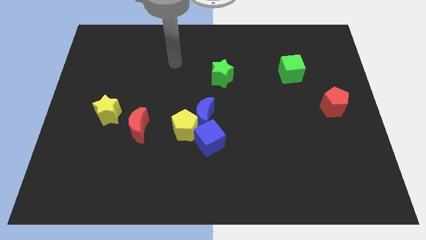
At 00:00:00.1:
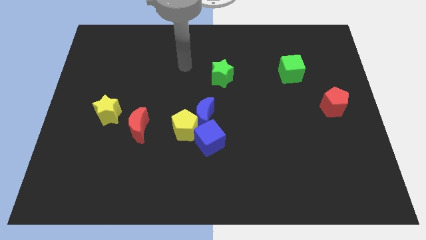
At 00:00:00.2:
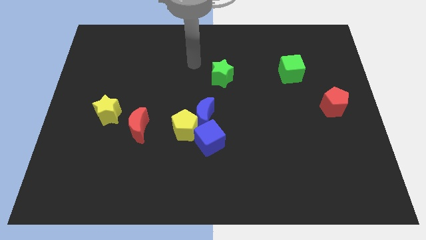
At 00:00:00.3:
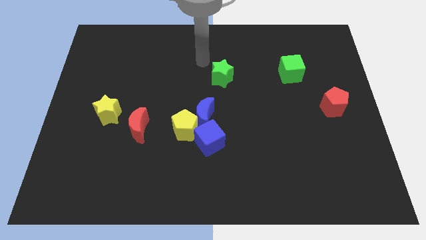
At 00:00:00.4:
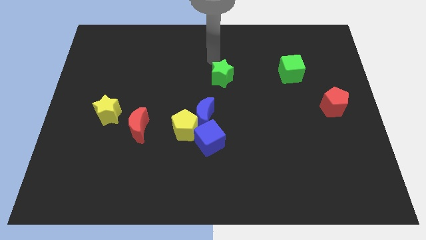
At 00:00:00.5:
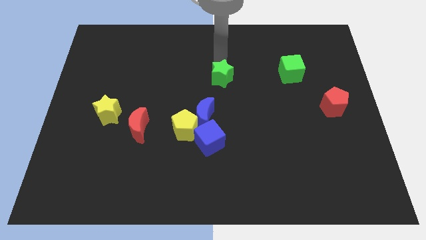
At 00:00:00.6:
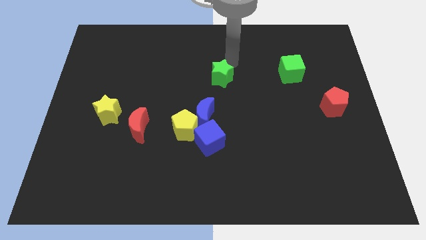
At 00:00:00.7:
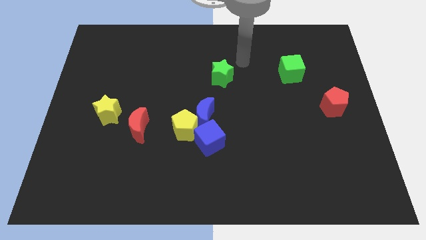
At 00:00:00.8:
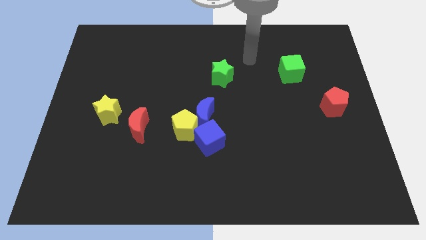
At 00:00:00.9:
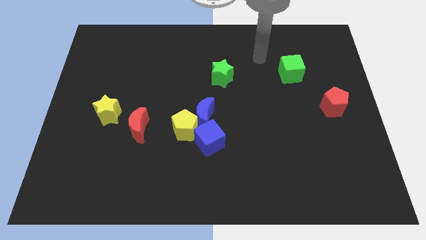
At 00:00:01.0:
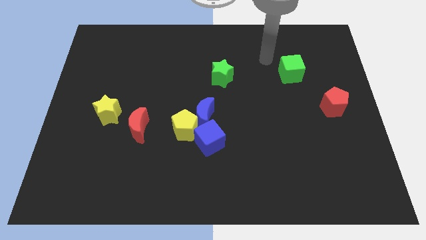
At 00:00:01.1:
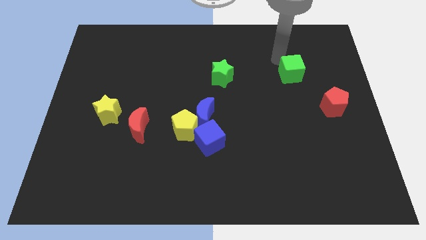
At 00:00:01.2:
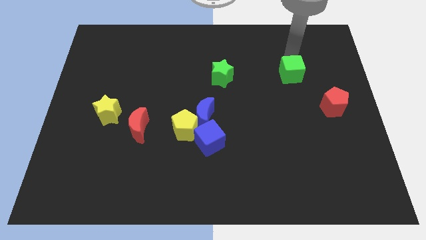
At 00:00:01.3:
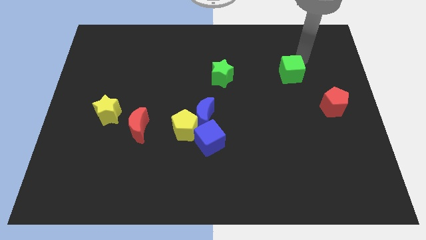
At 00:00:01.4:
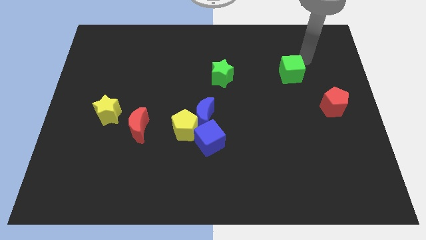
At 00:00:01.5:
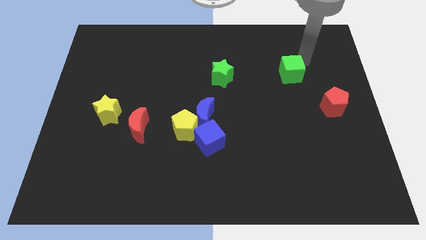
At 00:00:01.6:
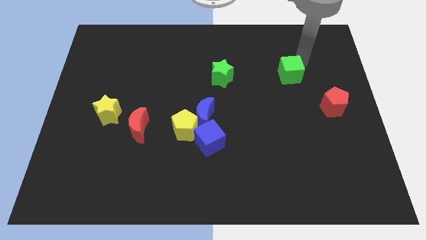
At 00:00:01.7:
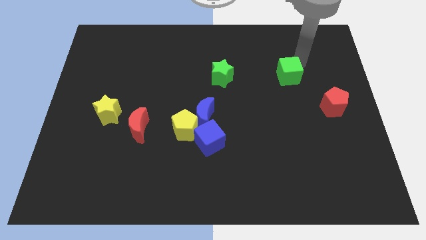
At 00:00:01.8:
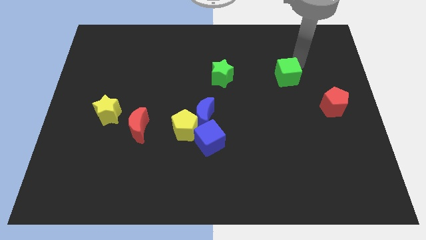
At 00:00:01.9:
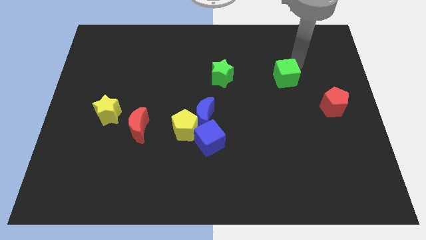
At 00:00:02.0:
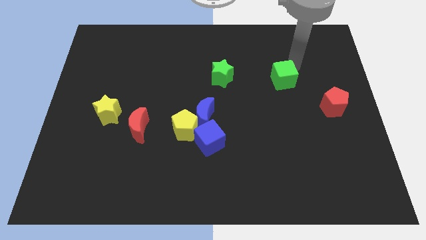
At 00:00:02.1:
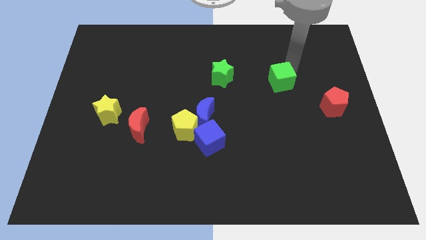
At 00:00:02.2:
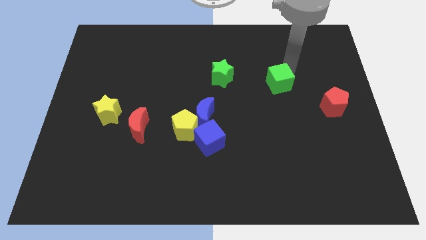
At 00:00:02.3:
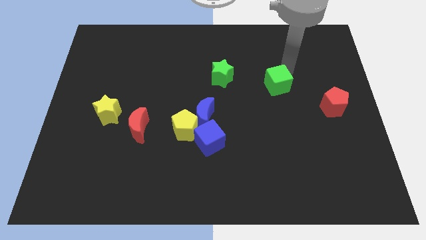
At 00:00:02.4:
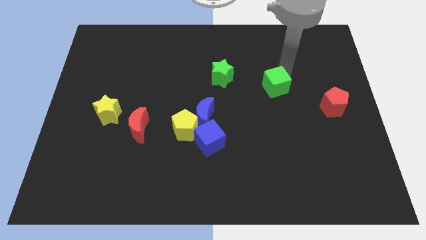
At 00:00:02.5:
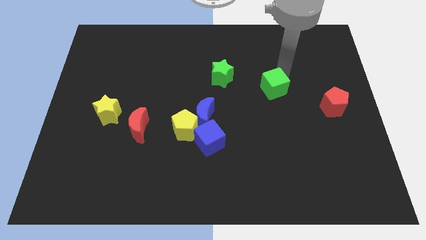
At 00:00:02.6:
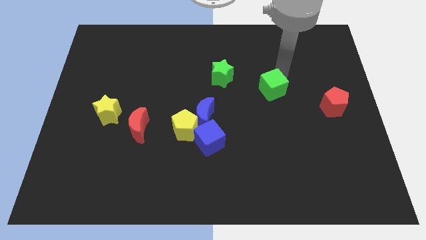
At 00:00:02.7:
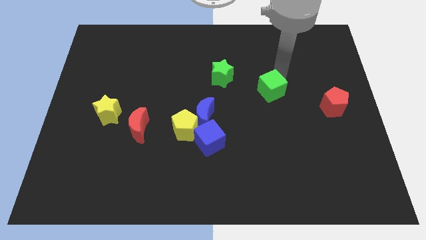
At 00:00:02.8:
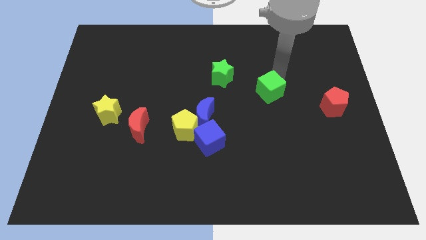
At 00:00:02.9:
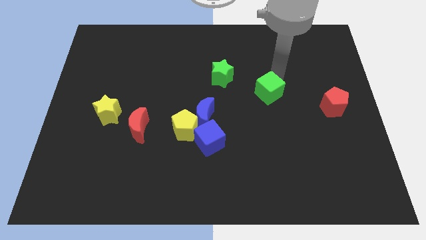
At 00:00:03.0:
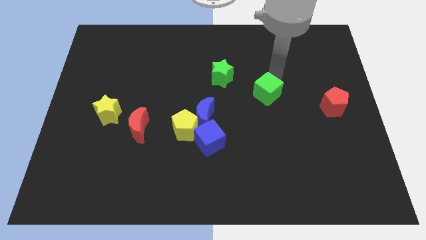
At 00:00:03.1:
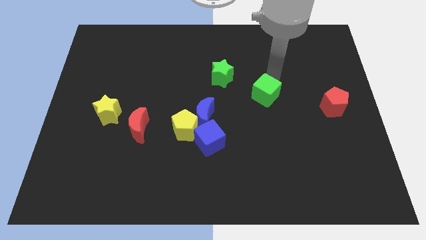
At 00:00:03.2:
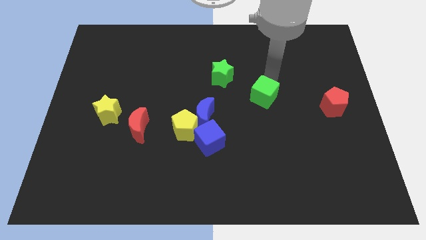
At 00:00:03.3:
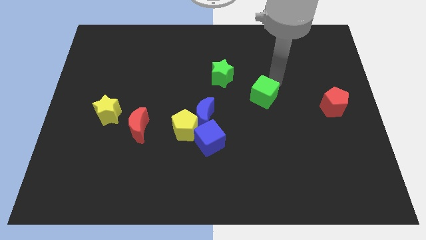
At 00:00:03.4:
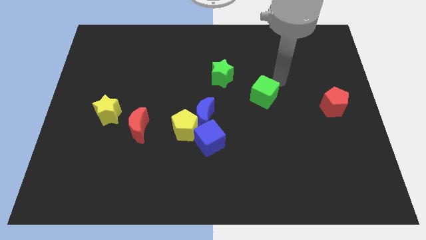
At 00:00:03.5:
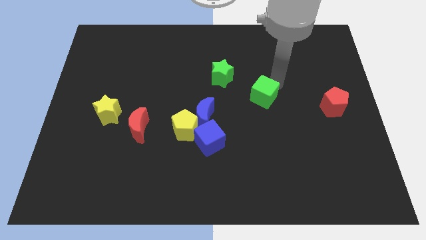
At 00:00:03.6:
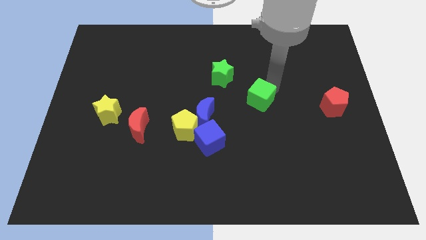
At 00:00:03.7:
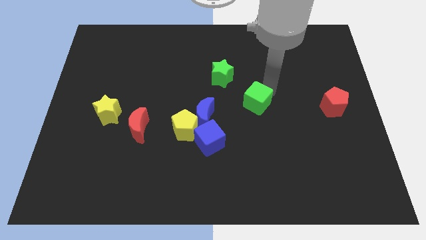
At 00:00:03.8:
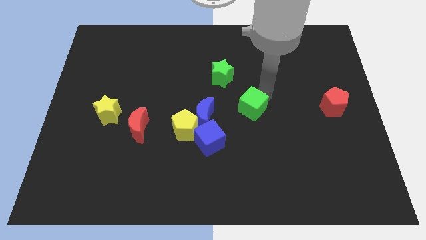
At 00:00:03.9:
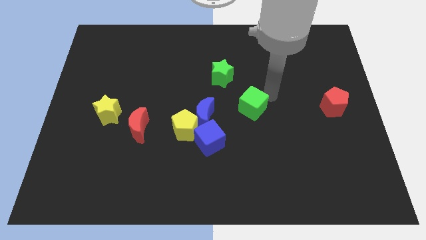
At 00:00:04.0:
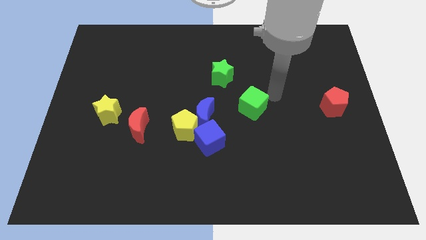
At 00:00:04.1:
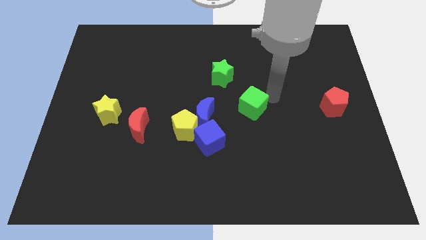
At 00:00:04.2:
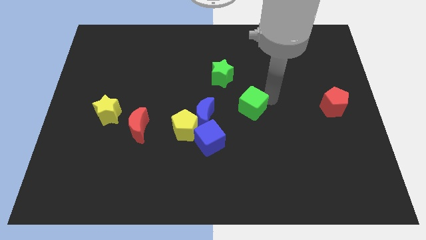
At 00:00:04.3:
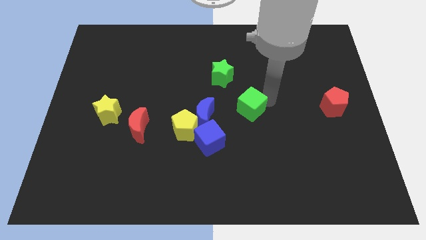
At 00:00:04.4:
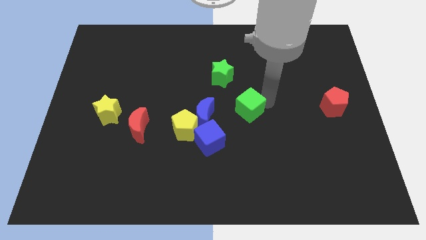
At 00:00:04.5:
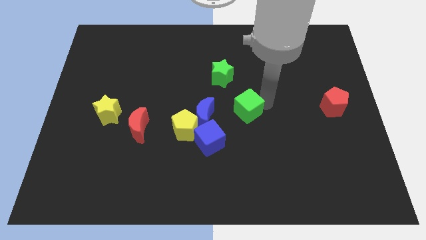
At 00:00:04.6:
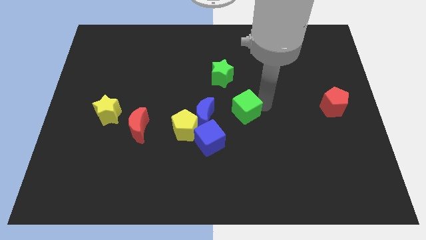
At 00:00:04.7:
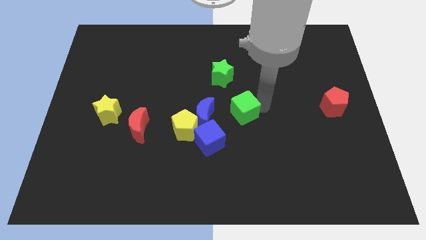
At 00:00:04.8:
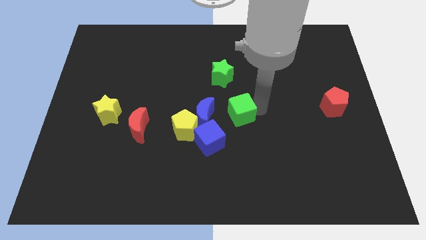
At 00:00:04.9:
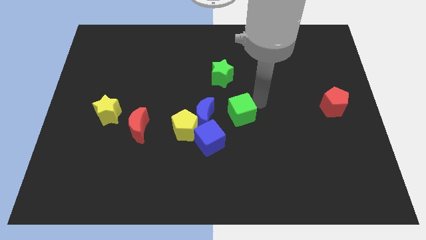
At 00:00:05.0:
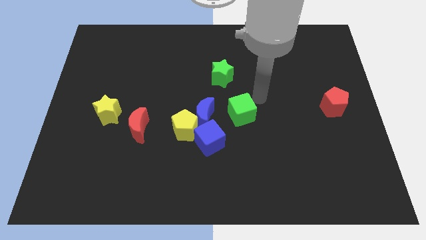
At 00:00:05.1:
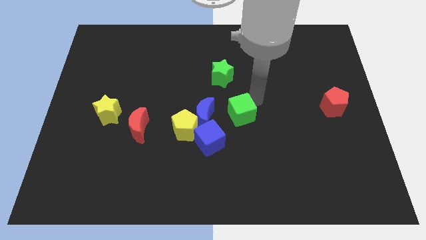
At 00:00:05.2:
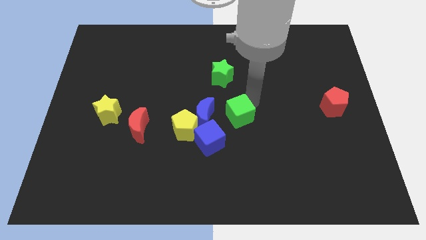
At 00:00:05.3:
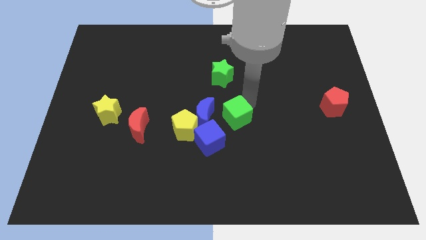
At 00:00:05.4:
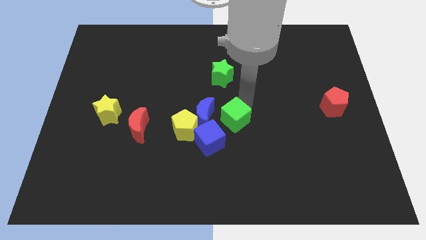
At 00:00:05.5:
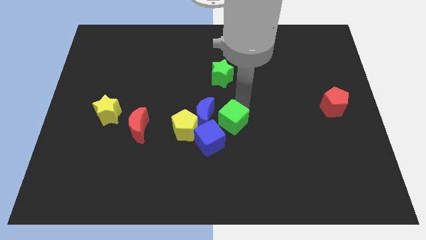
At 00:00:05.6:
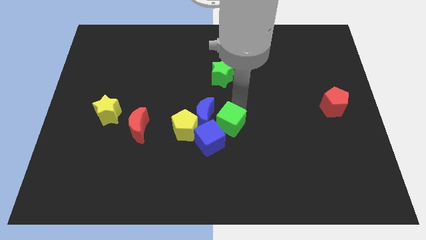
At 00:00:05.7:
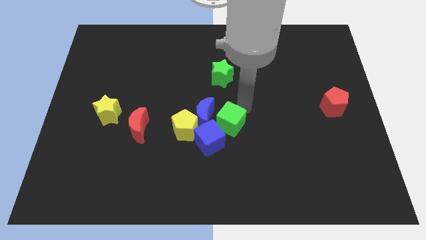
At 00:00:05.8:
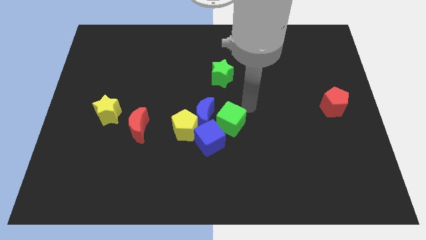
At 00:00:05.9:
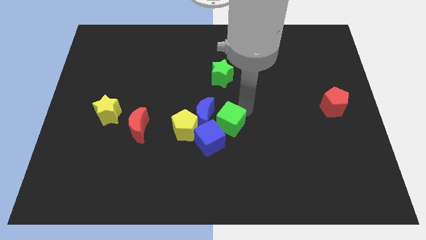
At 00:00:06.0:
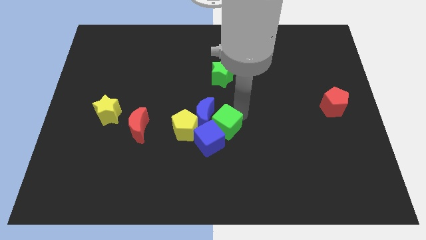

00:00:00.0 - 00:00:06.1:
slide the green cube to the blue cube
